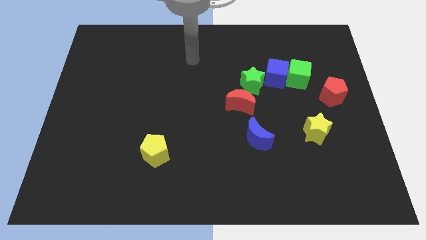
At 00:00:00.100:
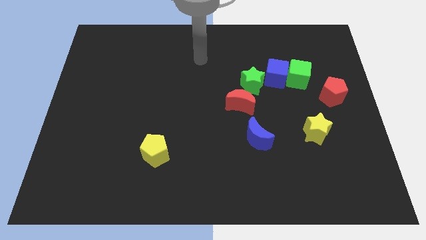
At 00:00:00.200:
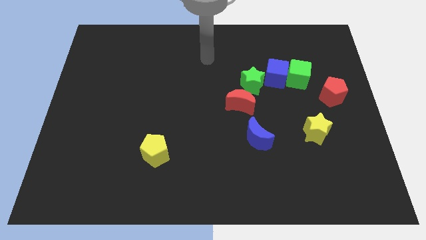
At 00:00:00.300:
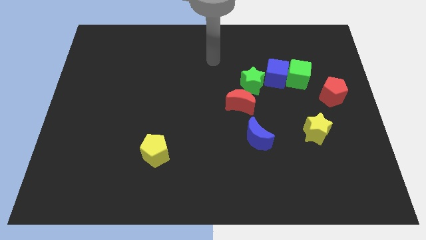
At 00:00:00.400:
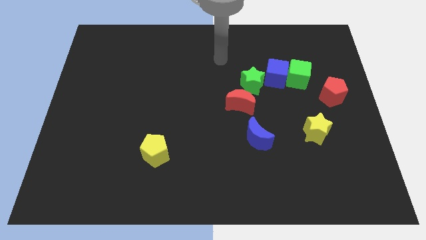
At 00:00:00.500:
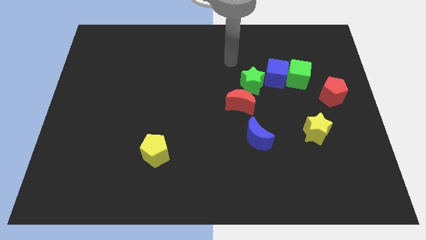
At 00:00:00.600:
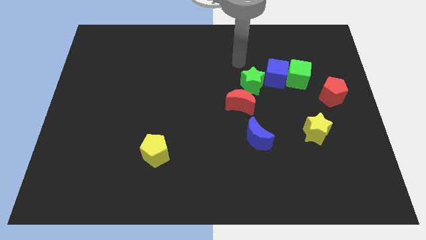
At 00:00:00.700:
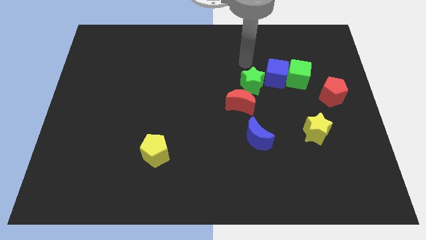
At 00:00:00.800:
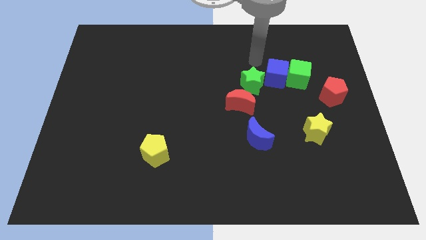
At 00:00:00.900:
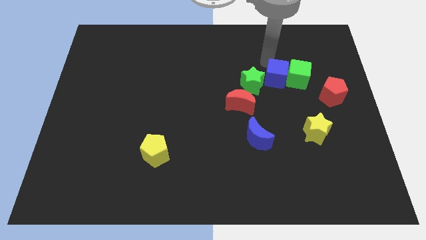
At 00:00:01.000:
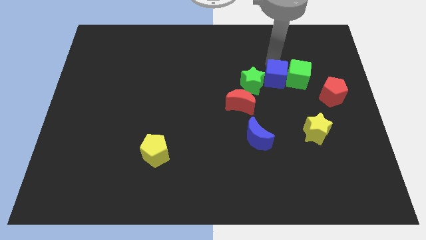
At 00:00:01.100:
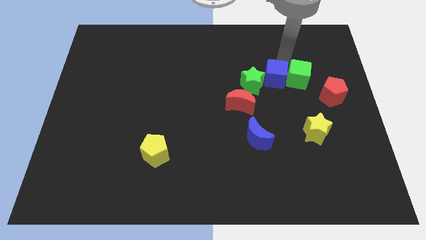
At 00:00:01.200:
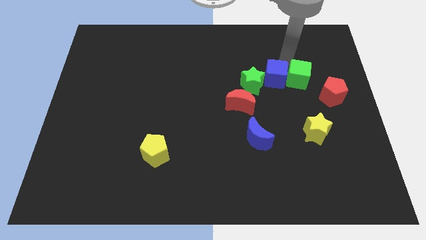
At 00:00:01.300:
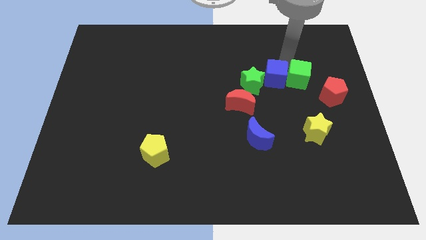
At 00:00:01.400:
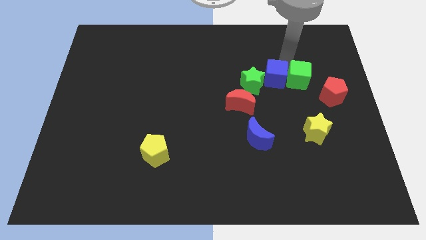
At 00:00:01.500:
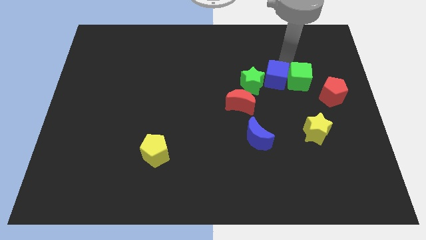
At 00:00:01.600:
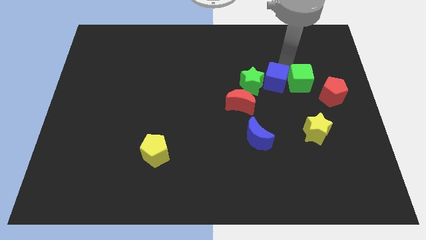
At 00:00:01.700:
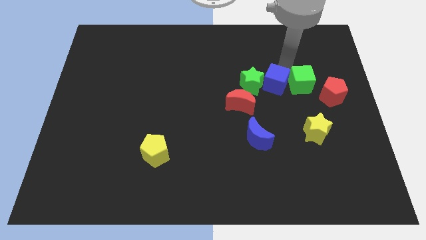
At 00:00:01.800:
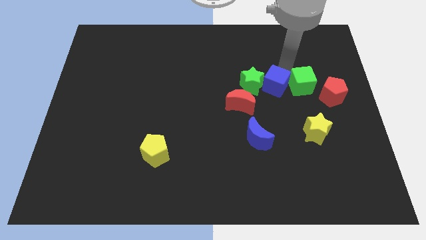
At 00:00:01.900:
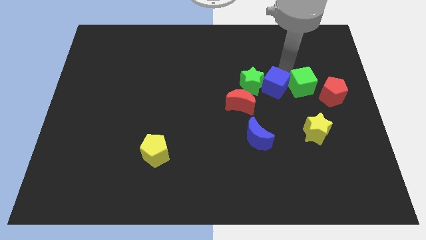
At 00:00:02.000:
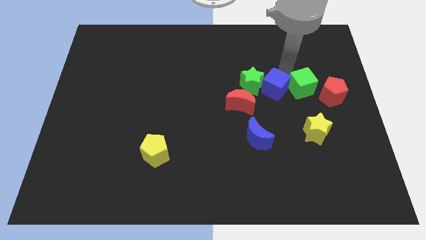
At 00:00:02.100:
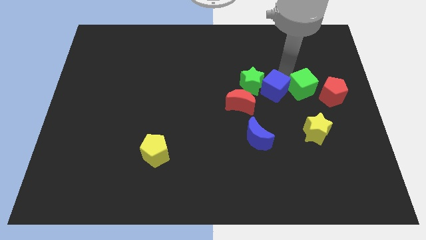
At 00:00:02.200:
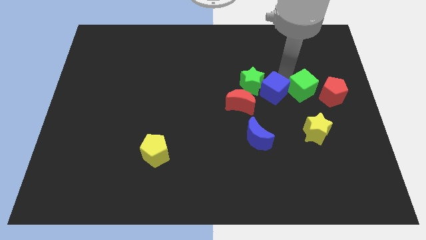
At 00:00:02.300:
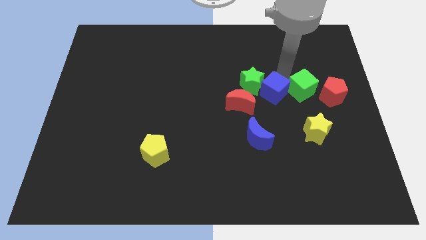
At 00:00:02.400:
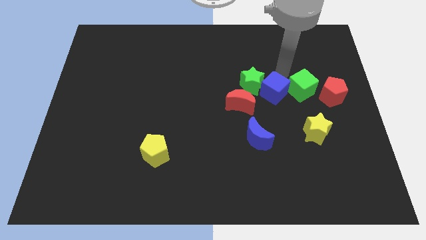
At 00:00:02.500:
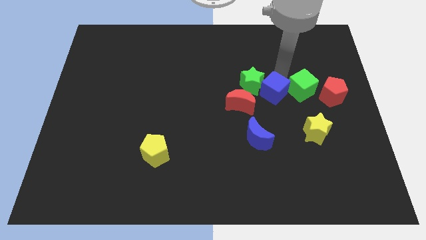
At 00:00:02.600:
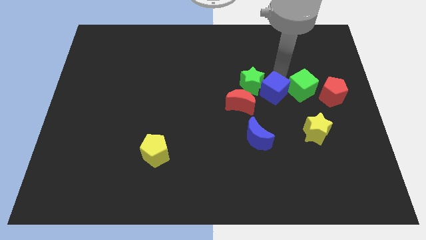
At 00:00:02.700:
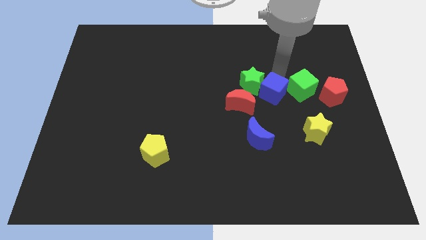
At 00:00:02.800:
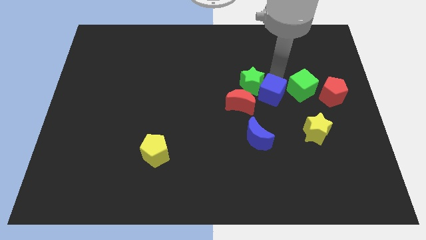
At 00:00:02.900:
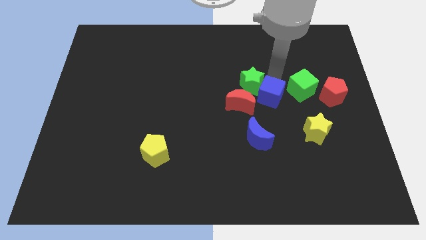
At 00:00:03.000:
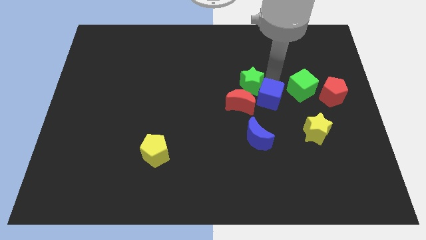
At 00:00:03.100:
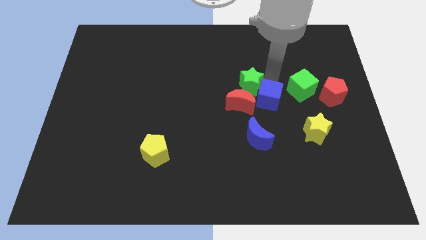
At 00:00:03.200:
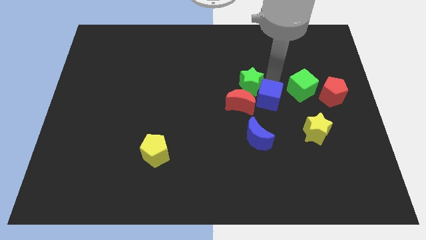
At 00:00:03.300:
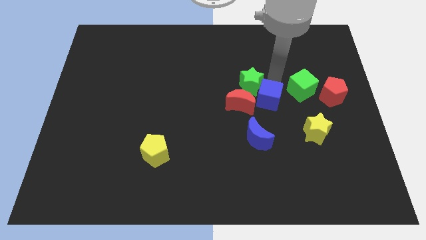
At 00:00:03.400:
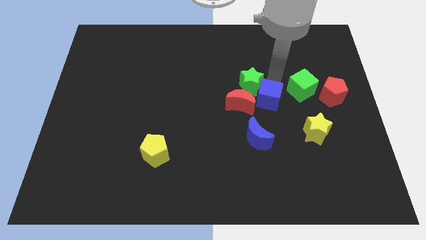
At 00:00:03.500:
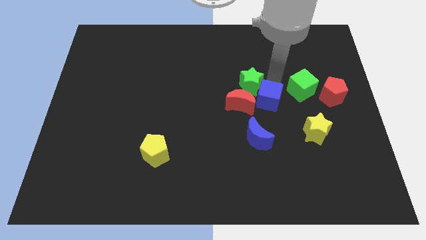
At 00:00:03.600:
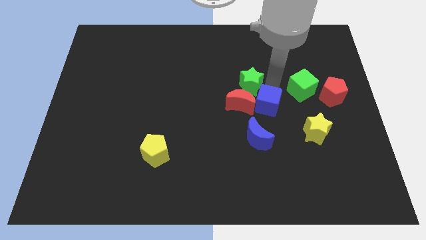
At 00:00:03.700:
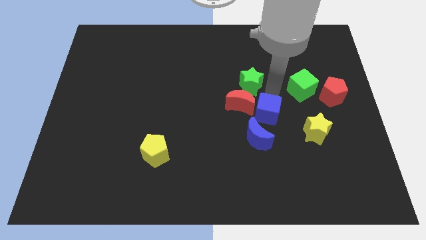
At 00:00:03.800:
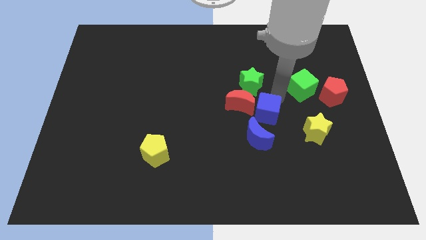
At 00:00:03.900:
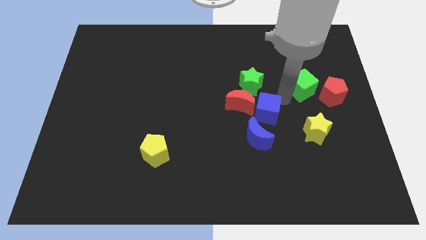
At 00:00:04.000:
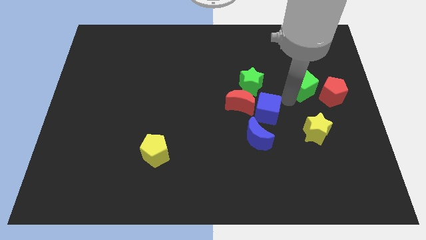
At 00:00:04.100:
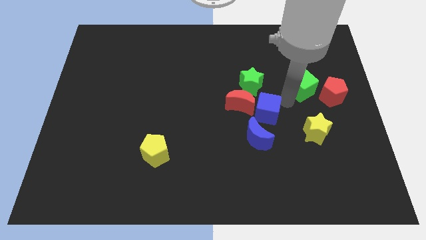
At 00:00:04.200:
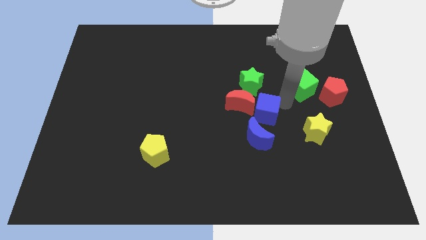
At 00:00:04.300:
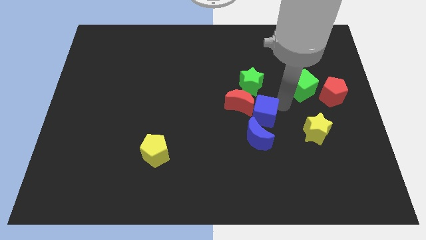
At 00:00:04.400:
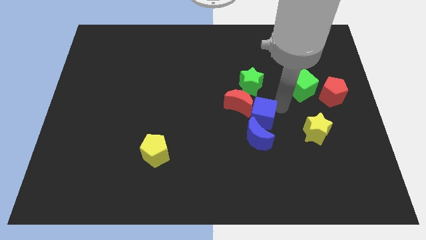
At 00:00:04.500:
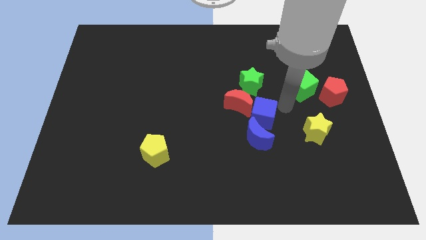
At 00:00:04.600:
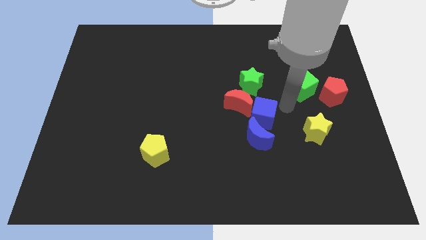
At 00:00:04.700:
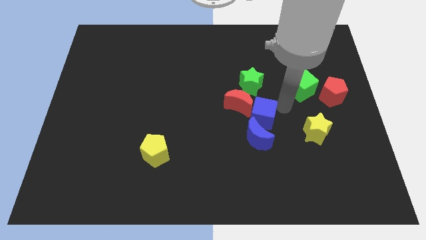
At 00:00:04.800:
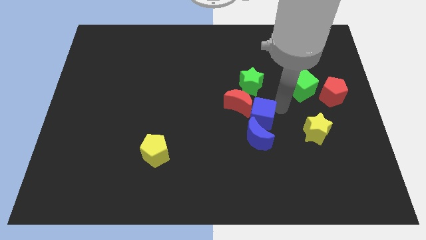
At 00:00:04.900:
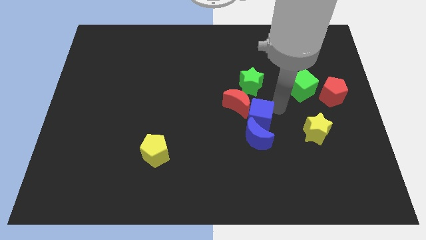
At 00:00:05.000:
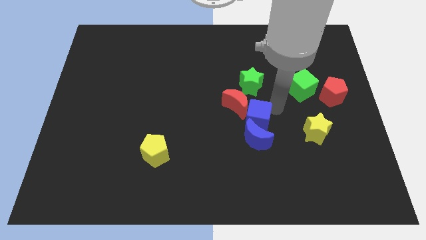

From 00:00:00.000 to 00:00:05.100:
move the blue cube to the bottom side of the red moon

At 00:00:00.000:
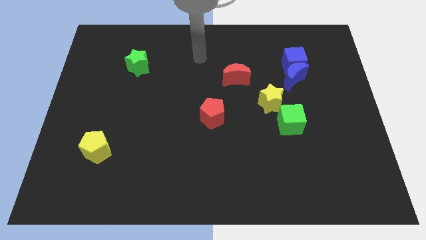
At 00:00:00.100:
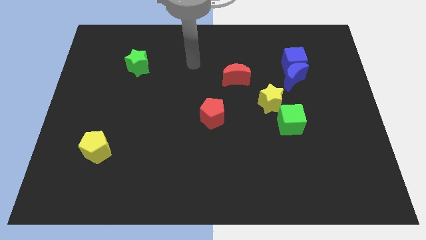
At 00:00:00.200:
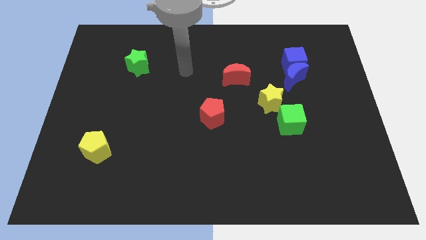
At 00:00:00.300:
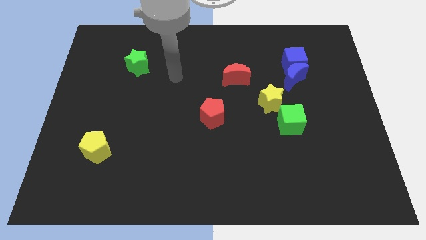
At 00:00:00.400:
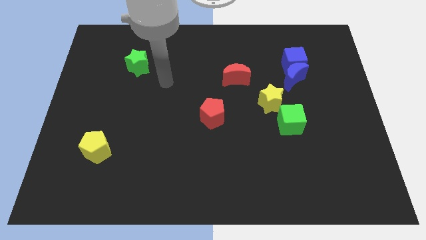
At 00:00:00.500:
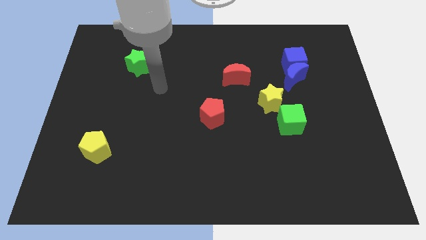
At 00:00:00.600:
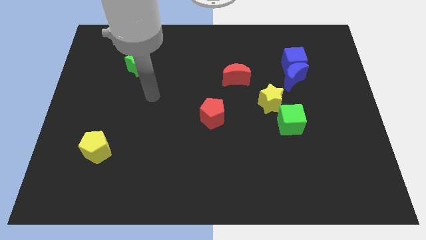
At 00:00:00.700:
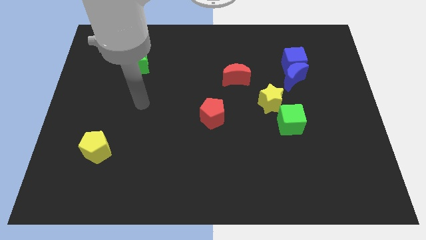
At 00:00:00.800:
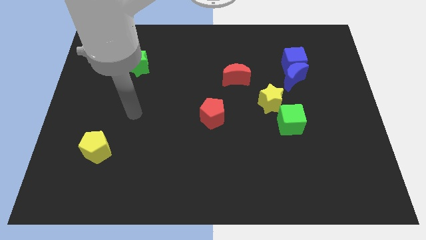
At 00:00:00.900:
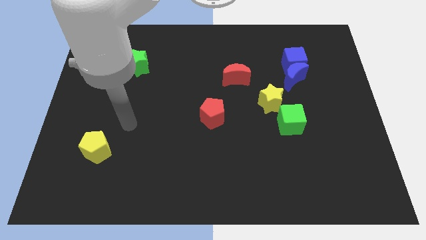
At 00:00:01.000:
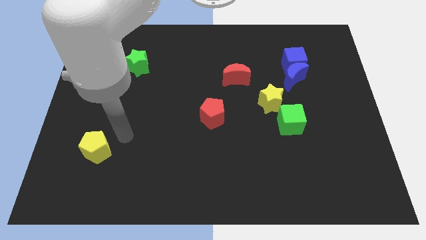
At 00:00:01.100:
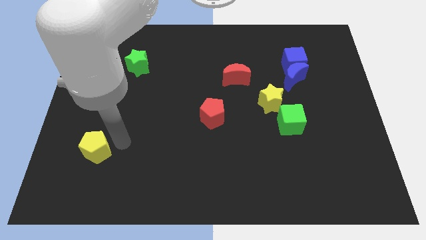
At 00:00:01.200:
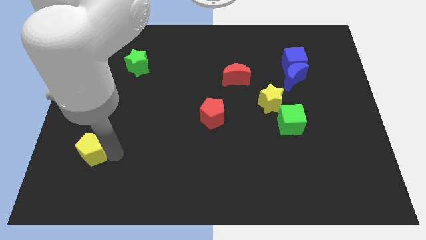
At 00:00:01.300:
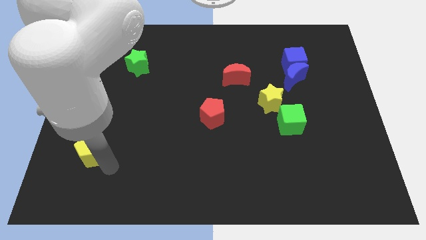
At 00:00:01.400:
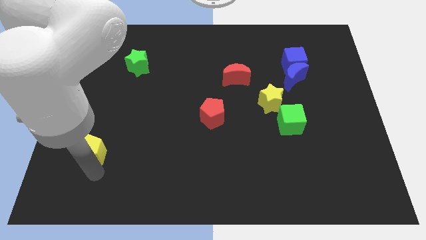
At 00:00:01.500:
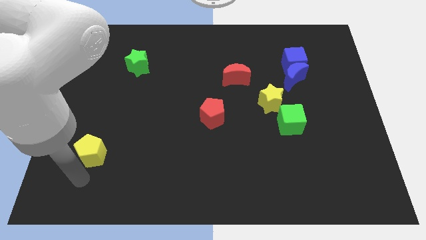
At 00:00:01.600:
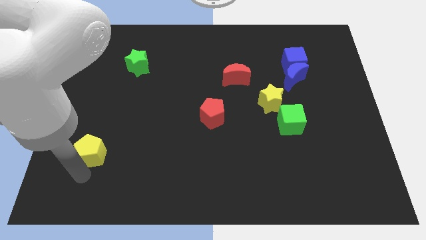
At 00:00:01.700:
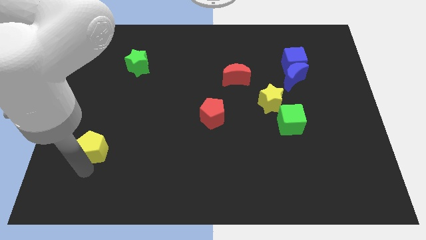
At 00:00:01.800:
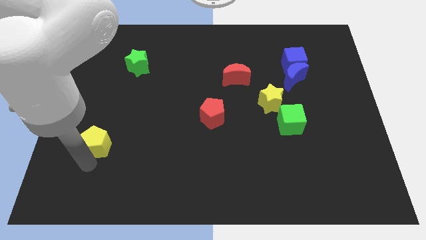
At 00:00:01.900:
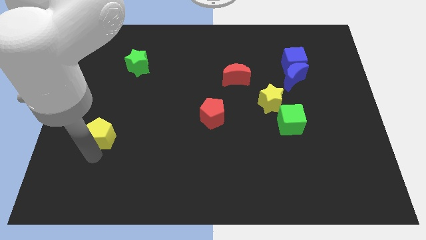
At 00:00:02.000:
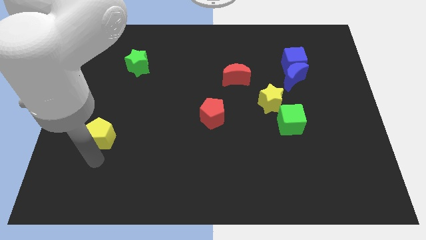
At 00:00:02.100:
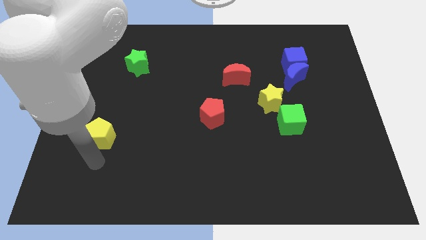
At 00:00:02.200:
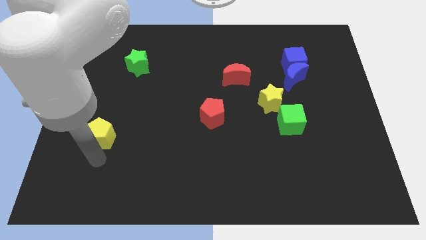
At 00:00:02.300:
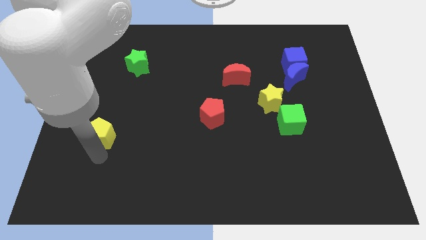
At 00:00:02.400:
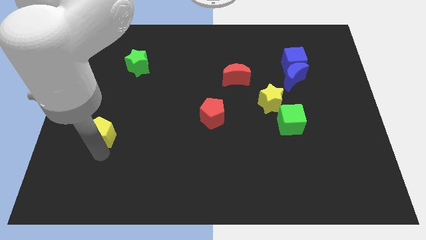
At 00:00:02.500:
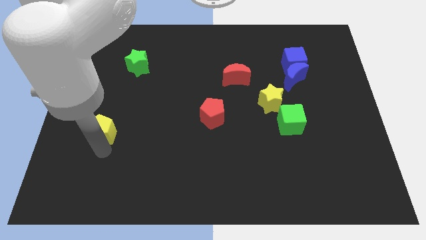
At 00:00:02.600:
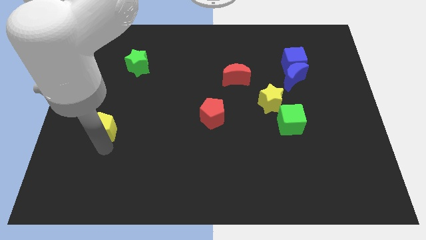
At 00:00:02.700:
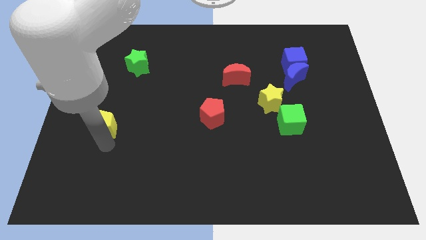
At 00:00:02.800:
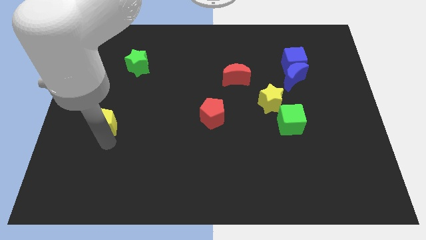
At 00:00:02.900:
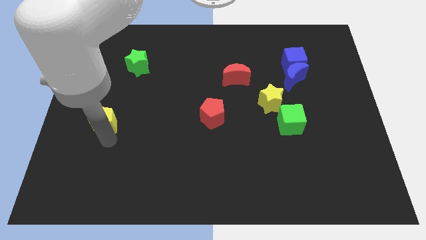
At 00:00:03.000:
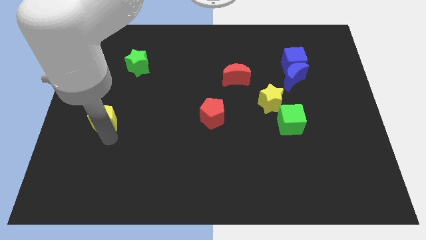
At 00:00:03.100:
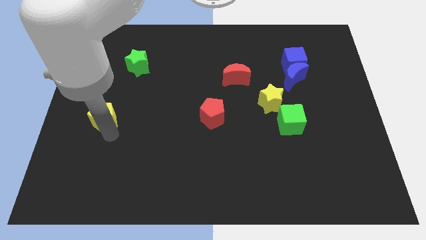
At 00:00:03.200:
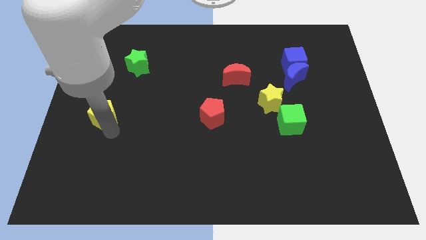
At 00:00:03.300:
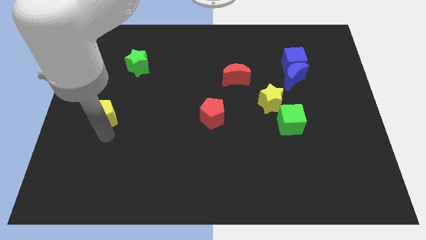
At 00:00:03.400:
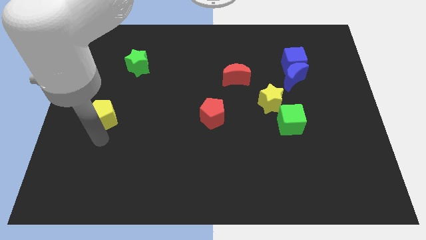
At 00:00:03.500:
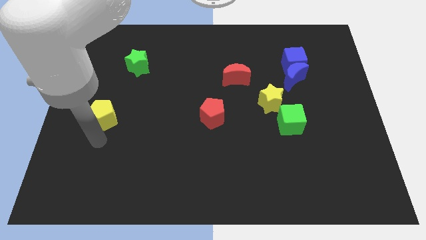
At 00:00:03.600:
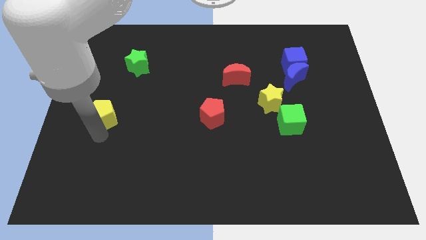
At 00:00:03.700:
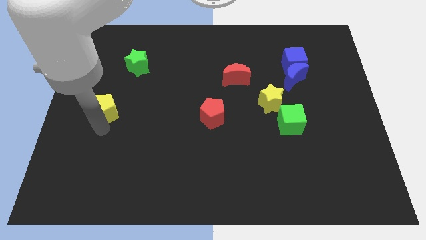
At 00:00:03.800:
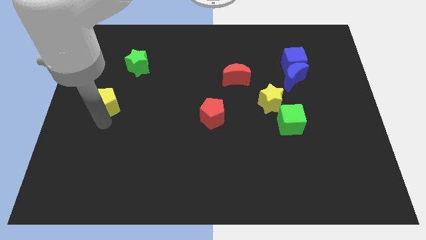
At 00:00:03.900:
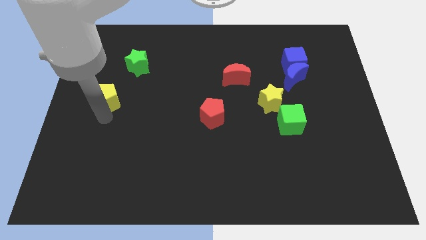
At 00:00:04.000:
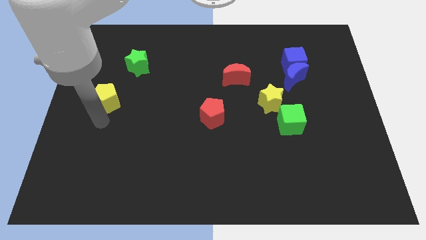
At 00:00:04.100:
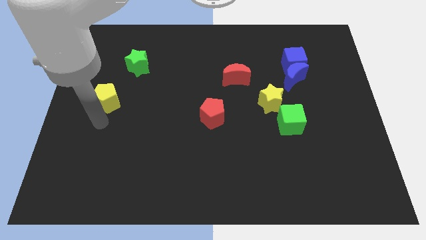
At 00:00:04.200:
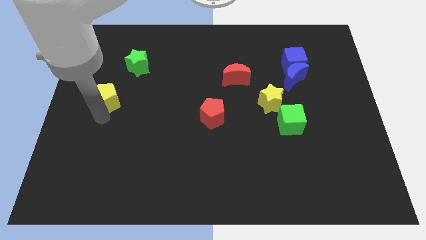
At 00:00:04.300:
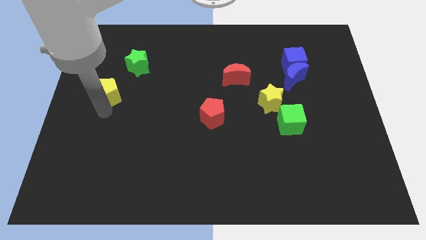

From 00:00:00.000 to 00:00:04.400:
put the yellow pentagon to the bottom left side of the green star
